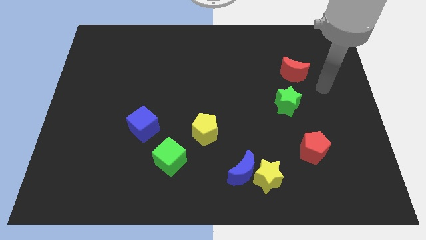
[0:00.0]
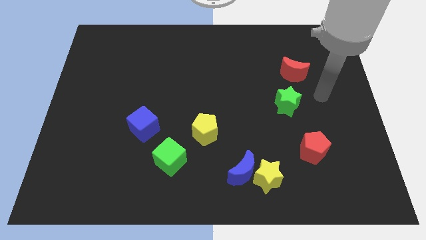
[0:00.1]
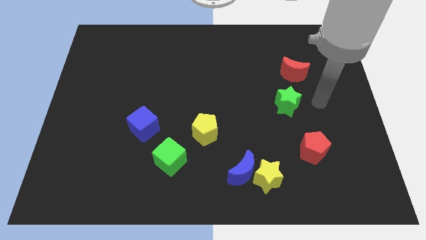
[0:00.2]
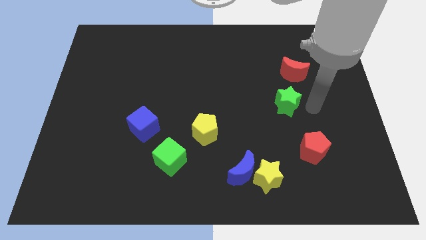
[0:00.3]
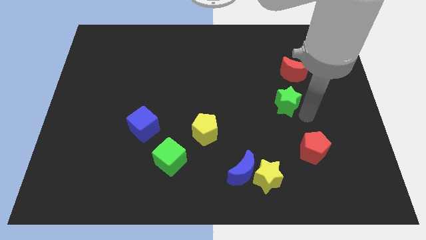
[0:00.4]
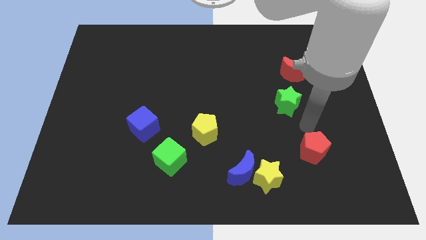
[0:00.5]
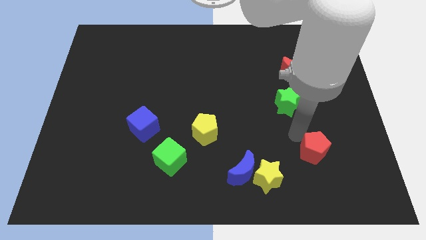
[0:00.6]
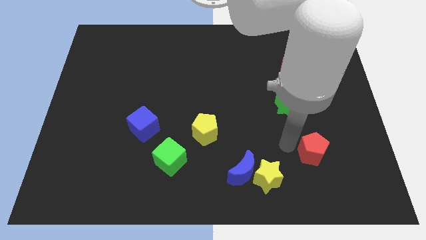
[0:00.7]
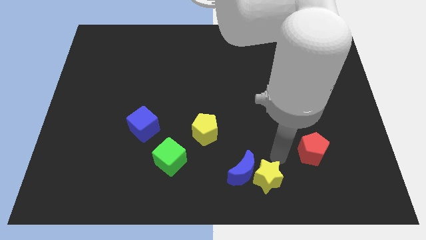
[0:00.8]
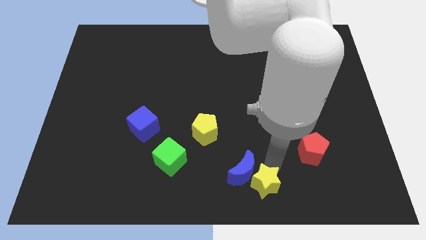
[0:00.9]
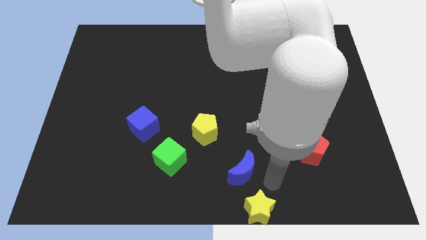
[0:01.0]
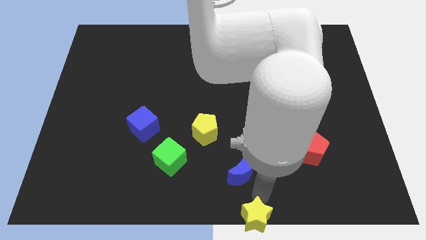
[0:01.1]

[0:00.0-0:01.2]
move the blue moon away from the yellow star

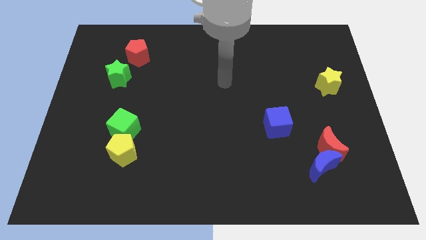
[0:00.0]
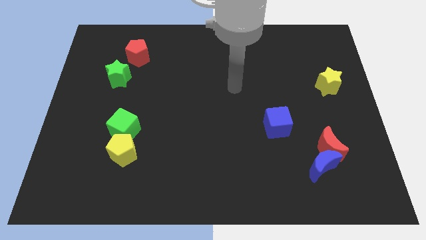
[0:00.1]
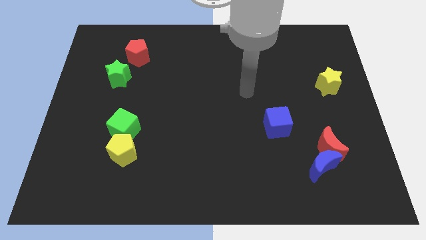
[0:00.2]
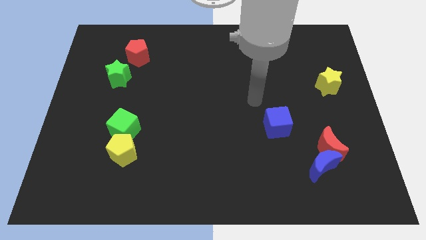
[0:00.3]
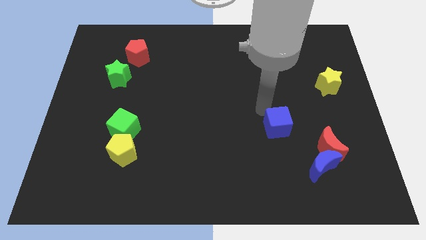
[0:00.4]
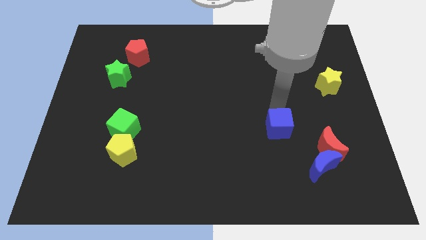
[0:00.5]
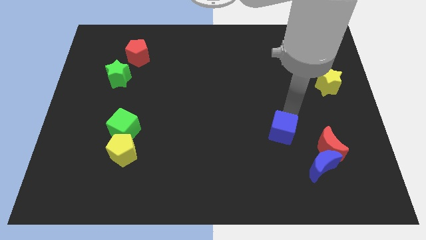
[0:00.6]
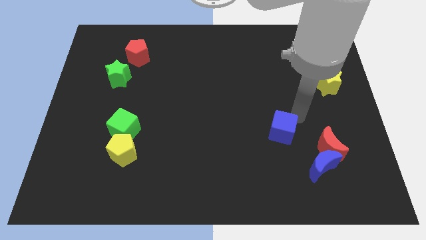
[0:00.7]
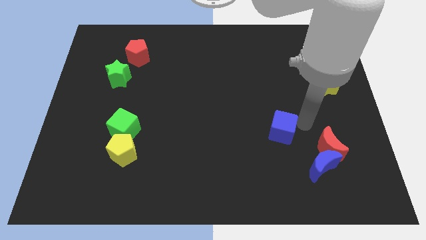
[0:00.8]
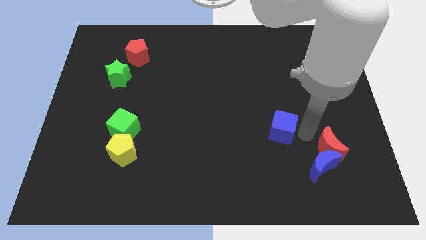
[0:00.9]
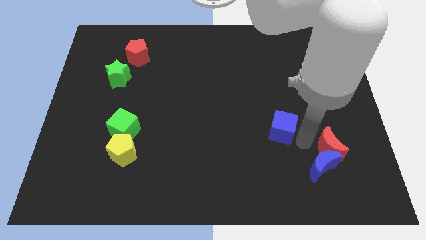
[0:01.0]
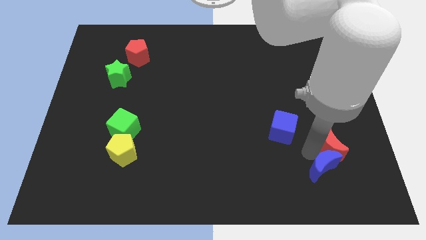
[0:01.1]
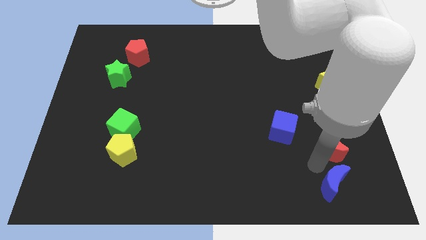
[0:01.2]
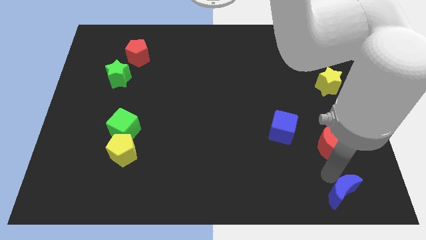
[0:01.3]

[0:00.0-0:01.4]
separate the red moon from the blue moon

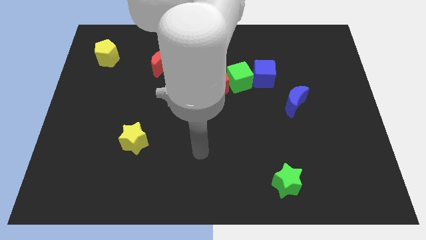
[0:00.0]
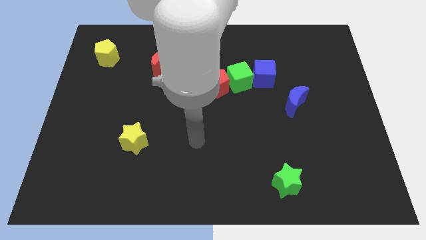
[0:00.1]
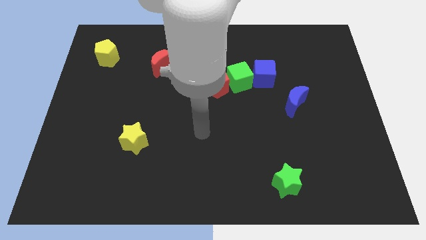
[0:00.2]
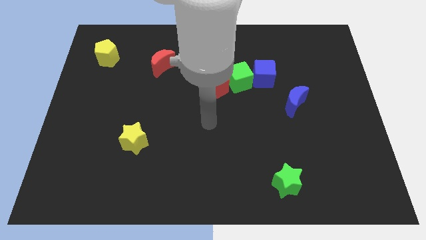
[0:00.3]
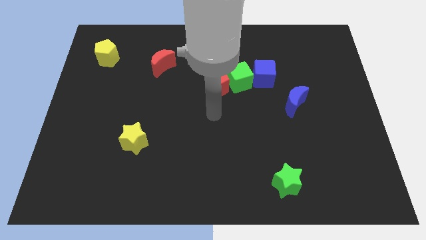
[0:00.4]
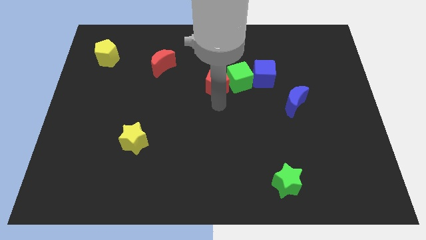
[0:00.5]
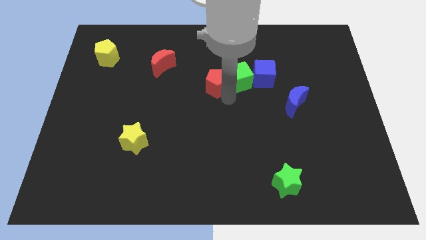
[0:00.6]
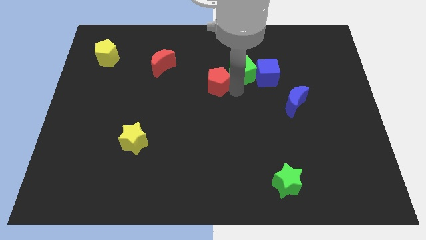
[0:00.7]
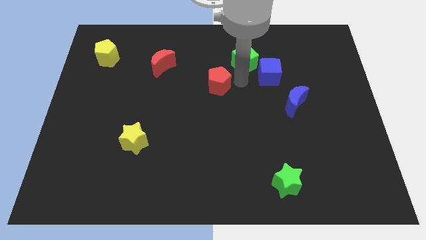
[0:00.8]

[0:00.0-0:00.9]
pull the red pentagon apart from the green cube

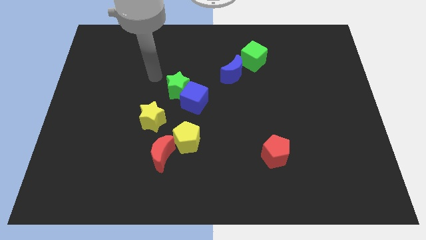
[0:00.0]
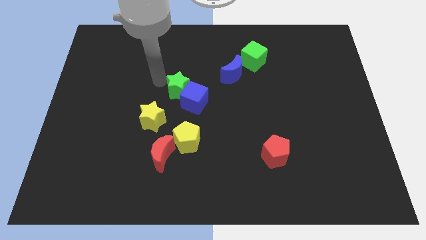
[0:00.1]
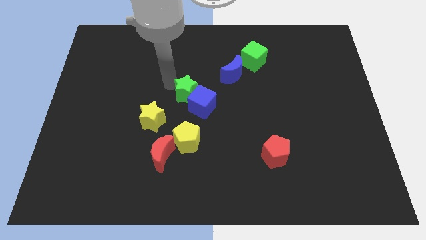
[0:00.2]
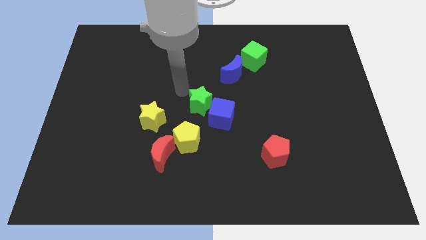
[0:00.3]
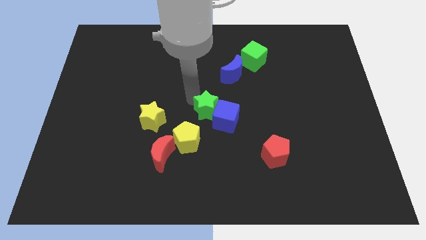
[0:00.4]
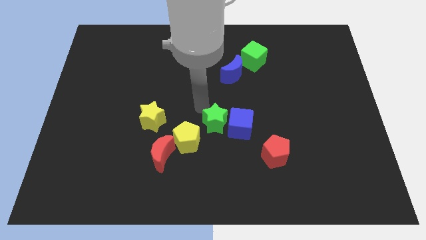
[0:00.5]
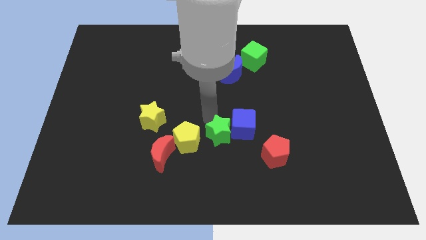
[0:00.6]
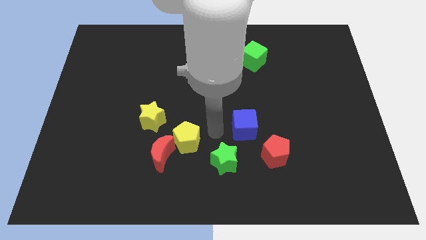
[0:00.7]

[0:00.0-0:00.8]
move the blue cube away from the green star

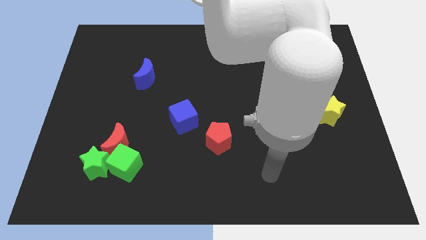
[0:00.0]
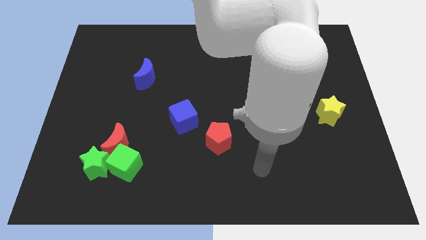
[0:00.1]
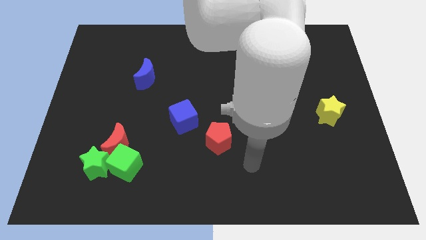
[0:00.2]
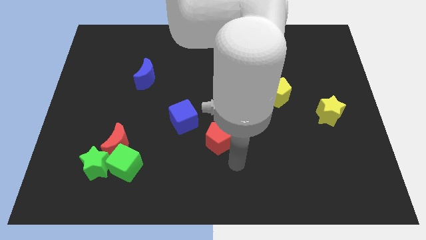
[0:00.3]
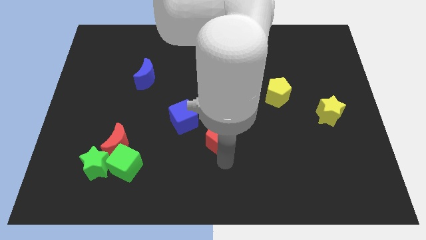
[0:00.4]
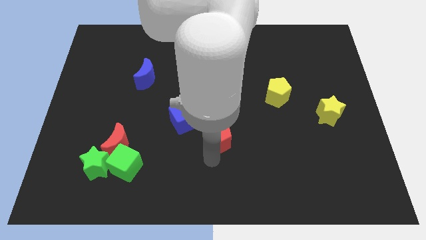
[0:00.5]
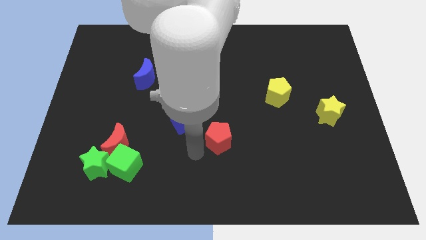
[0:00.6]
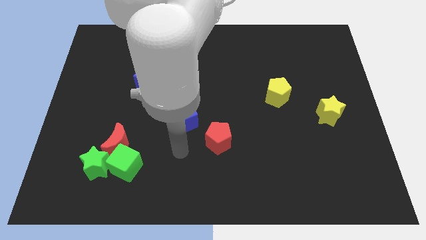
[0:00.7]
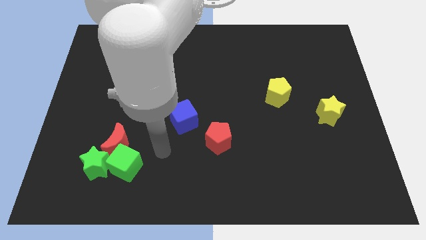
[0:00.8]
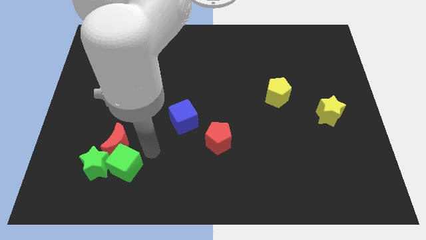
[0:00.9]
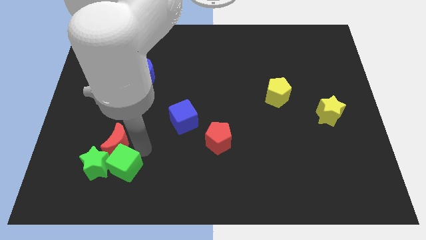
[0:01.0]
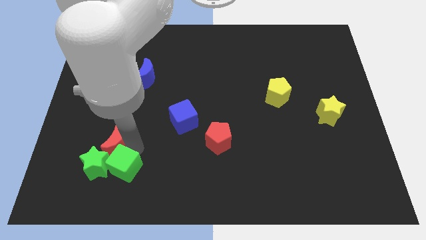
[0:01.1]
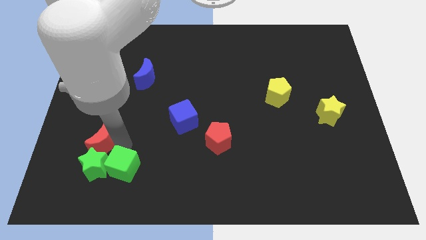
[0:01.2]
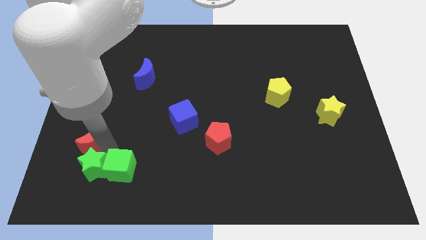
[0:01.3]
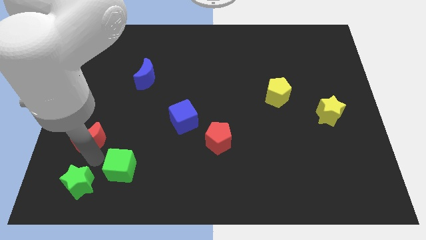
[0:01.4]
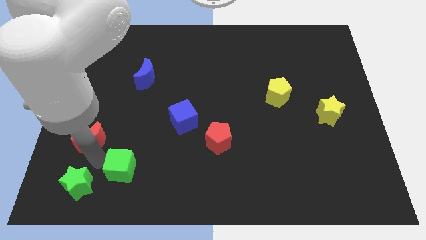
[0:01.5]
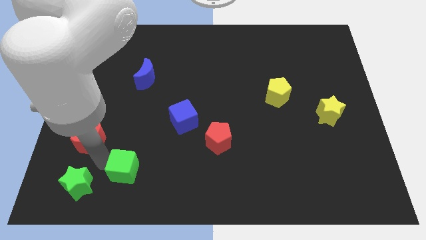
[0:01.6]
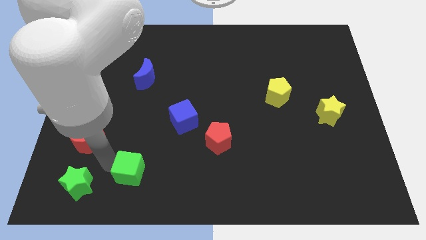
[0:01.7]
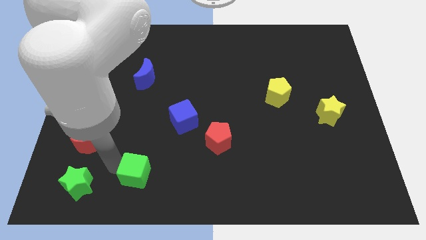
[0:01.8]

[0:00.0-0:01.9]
move the green cube away from the red moon and green star

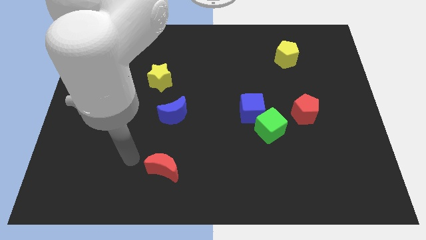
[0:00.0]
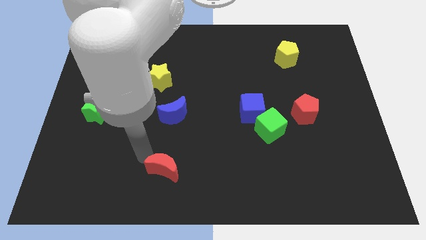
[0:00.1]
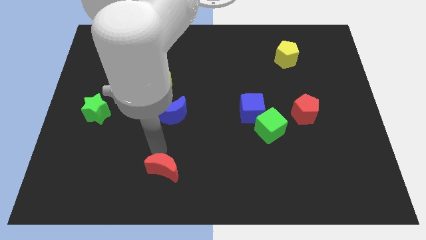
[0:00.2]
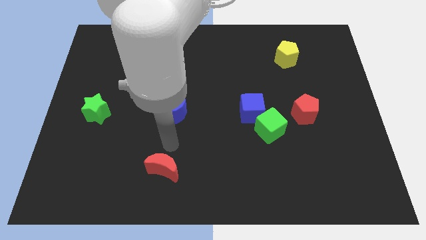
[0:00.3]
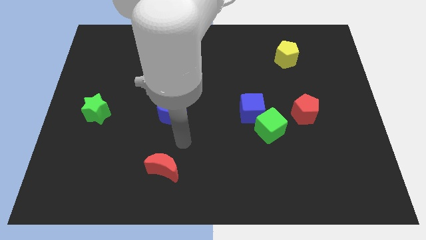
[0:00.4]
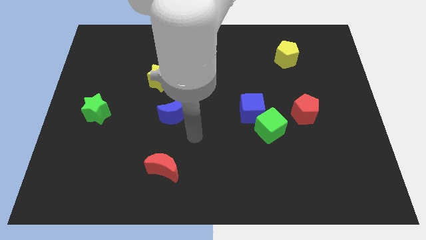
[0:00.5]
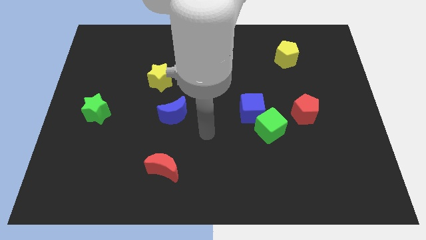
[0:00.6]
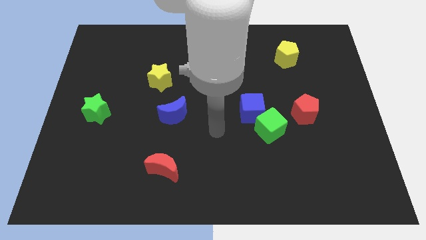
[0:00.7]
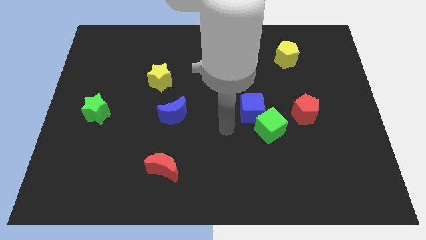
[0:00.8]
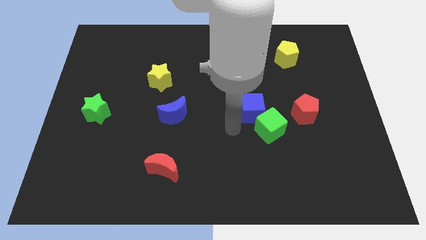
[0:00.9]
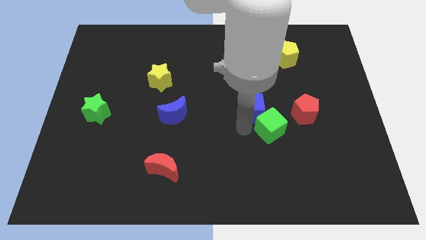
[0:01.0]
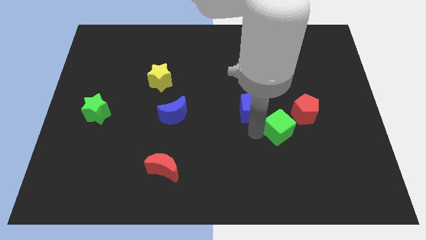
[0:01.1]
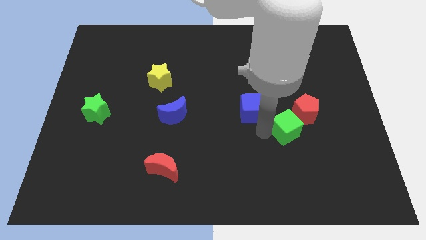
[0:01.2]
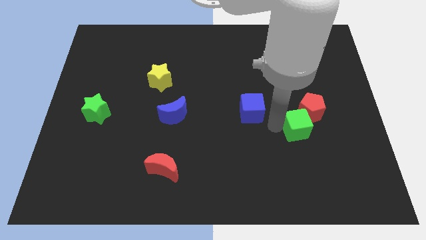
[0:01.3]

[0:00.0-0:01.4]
pull the blue cube apart from the green cube

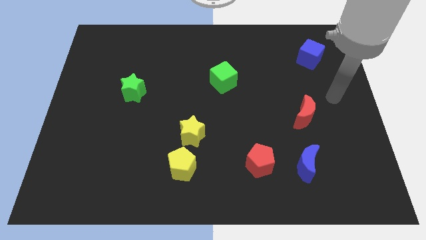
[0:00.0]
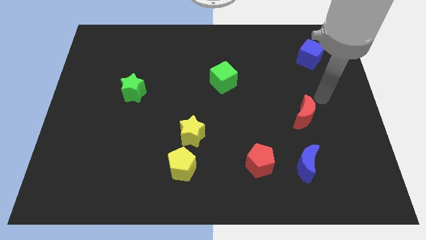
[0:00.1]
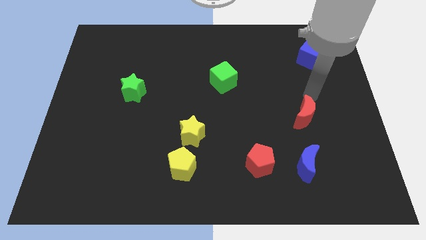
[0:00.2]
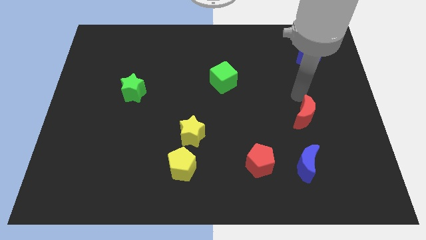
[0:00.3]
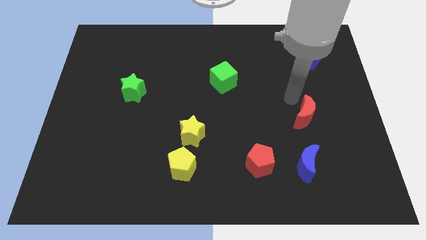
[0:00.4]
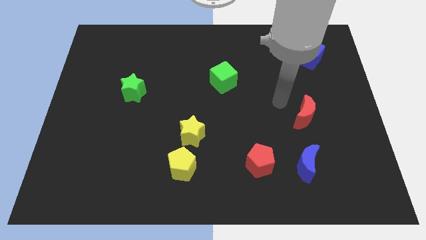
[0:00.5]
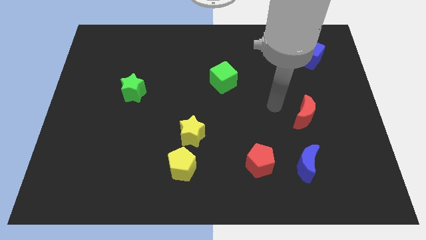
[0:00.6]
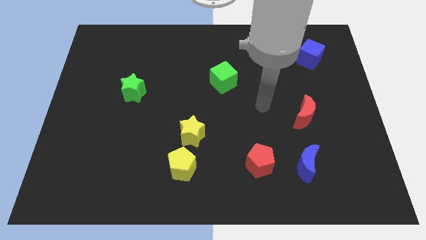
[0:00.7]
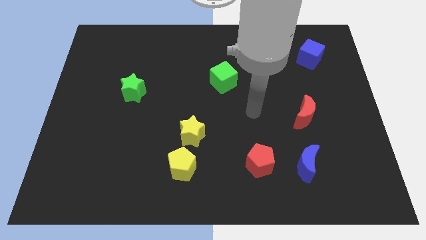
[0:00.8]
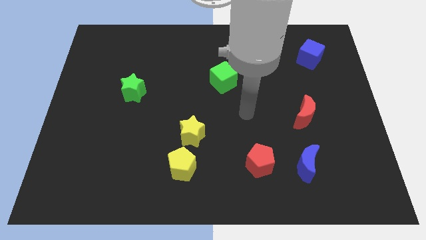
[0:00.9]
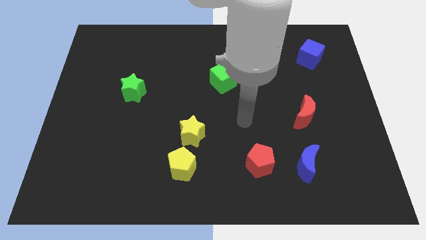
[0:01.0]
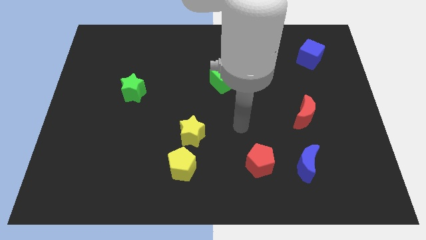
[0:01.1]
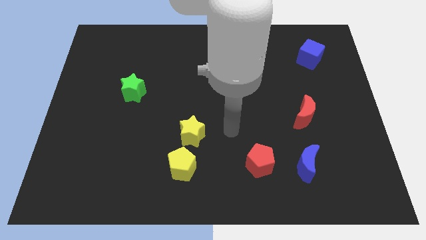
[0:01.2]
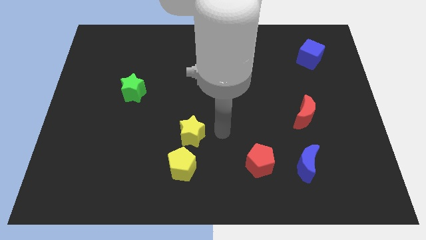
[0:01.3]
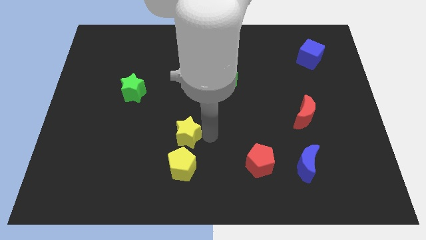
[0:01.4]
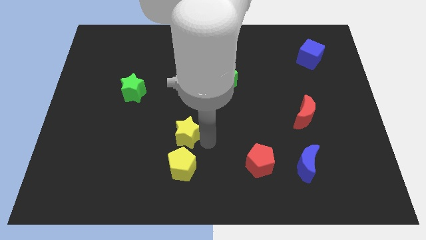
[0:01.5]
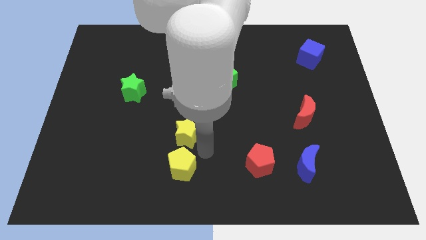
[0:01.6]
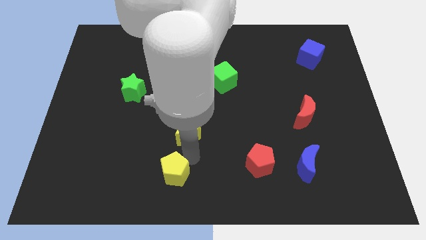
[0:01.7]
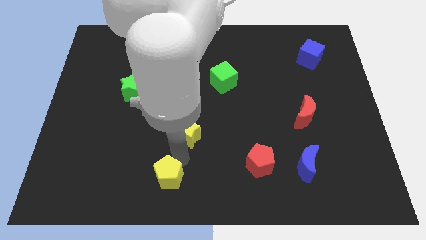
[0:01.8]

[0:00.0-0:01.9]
move the yellow star away from the yellow pentagon
